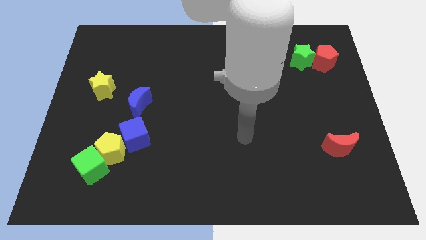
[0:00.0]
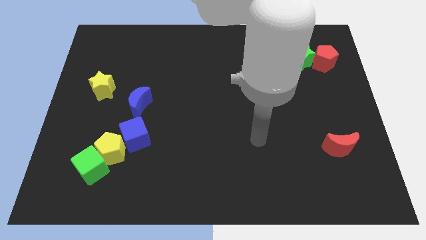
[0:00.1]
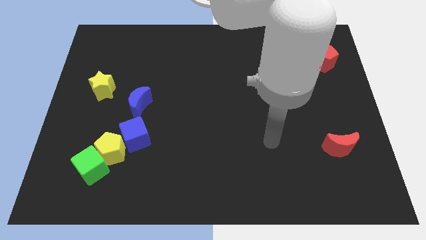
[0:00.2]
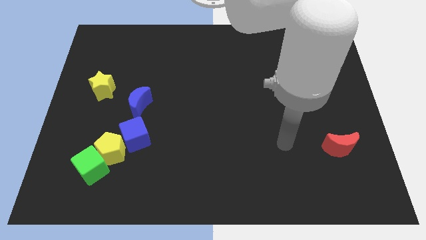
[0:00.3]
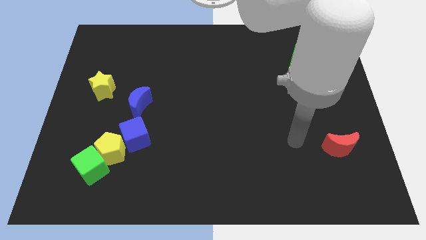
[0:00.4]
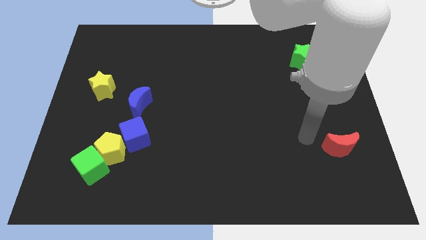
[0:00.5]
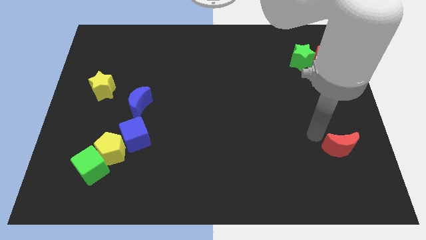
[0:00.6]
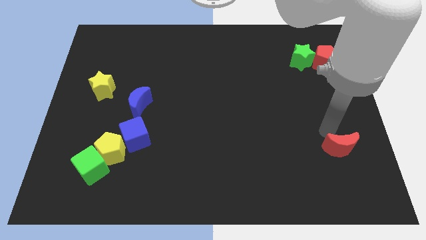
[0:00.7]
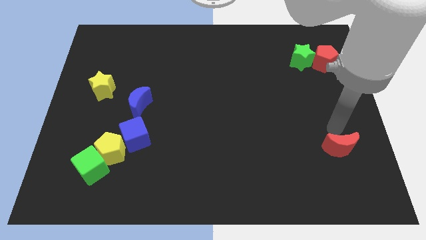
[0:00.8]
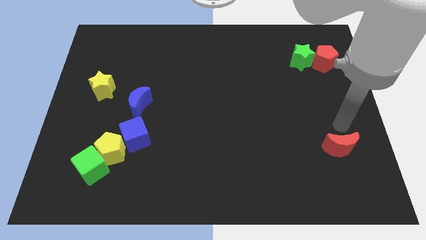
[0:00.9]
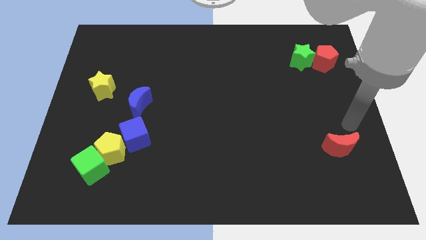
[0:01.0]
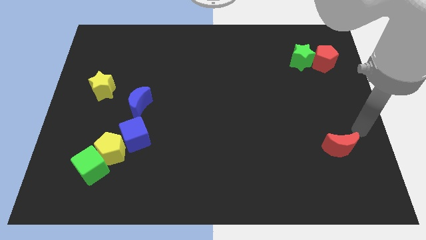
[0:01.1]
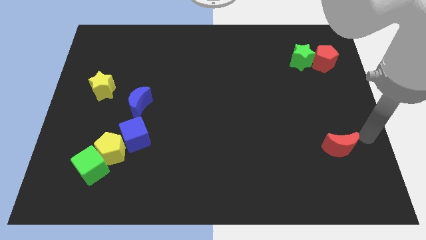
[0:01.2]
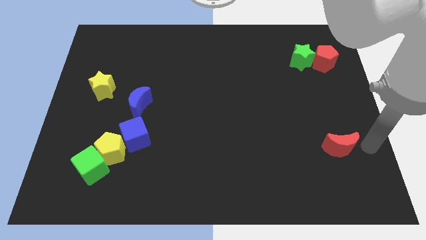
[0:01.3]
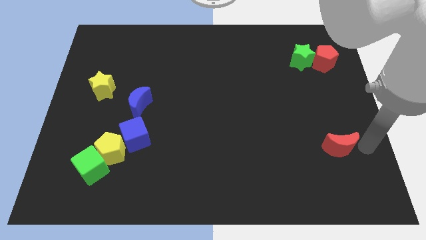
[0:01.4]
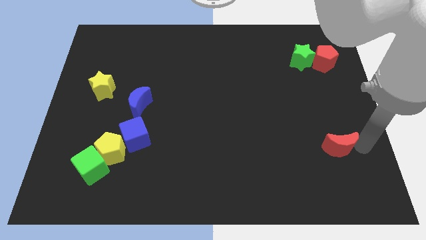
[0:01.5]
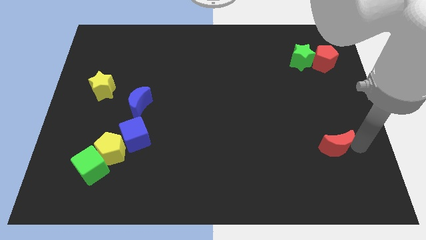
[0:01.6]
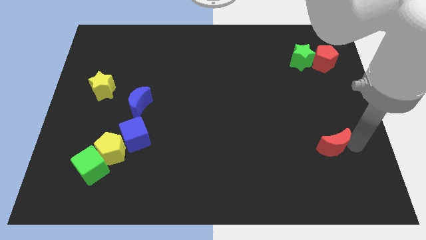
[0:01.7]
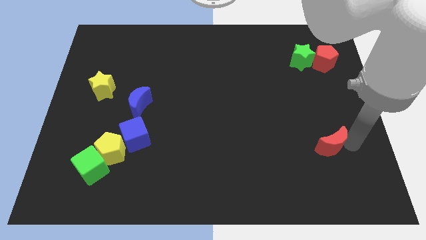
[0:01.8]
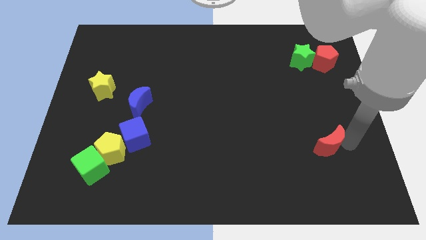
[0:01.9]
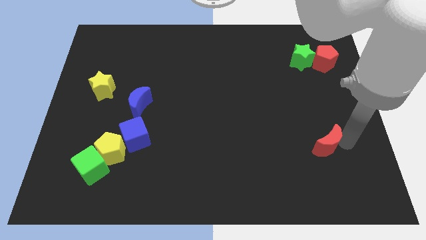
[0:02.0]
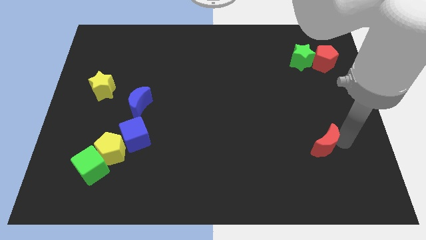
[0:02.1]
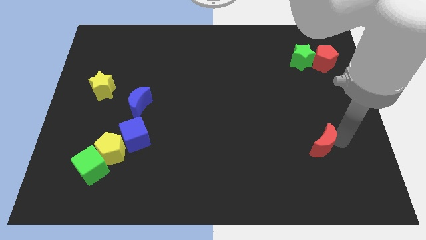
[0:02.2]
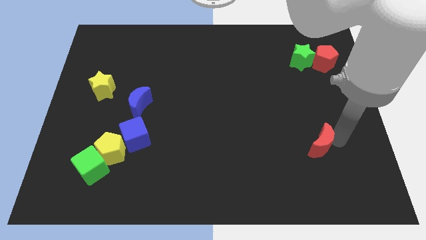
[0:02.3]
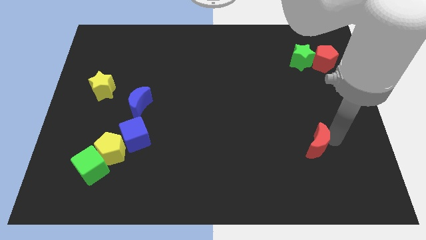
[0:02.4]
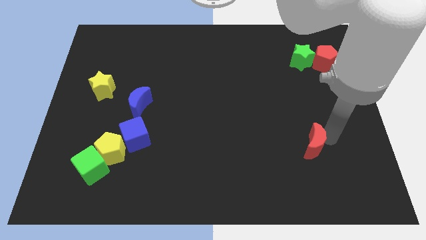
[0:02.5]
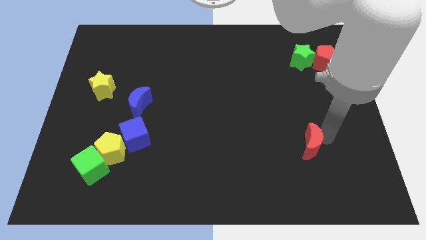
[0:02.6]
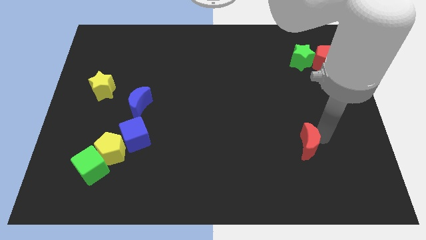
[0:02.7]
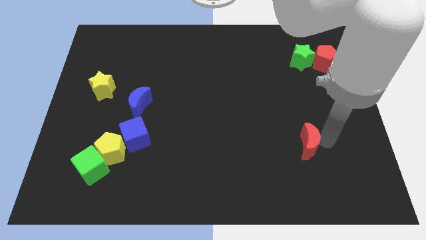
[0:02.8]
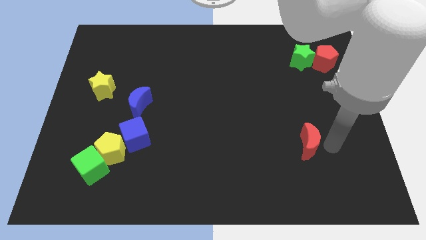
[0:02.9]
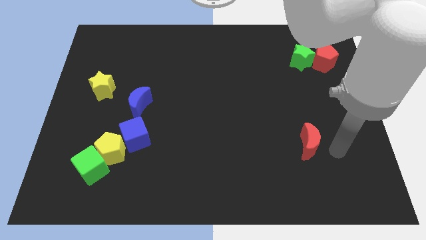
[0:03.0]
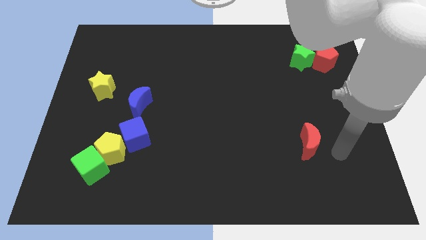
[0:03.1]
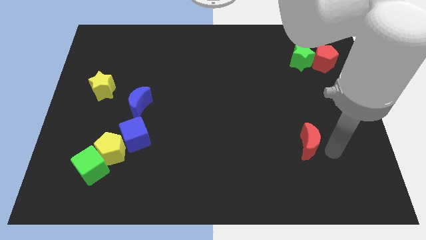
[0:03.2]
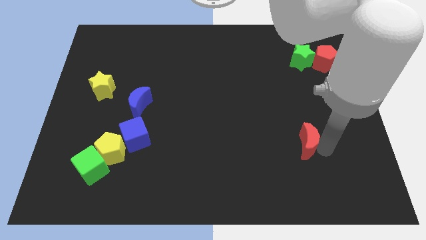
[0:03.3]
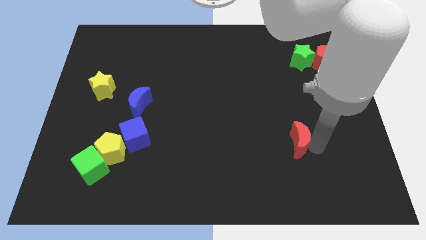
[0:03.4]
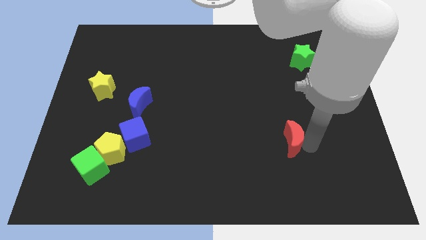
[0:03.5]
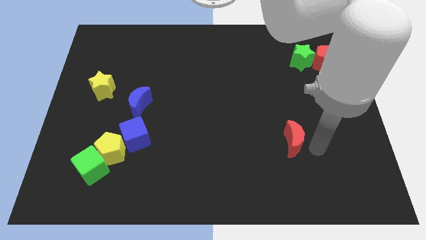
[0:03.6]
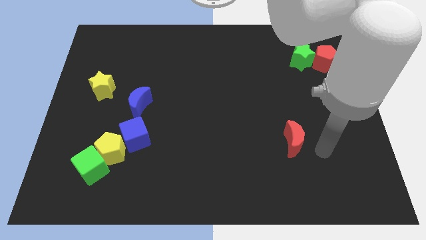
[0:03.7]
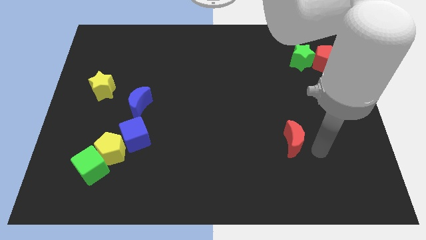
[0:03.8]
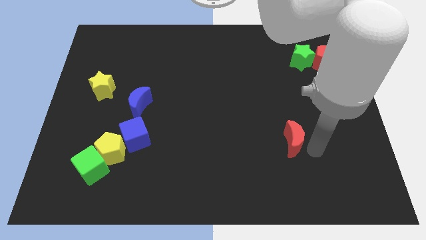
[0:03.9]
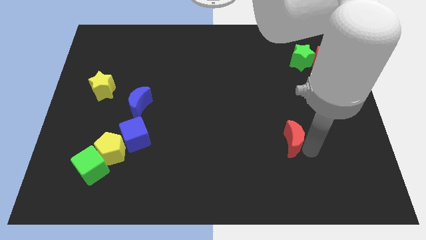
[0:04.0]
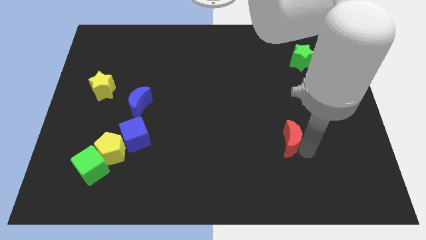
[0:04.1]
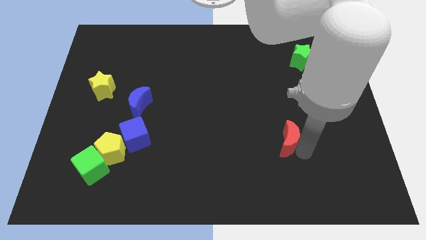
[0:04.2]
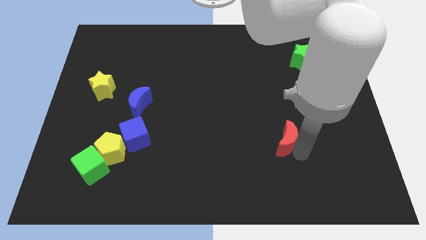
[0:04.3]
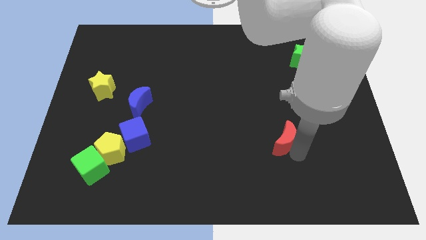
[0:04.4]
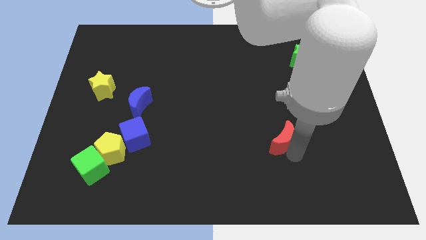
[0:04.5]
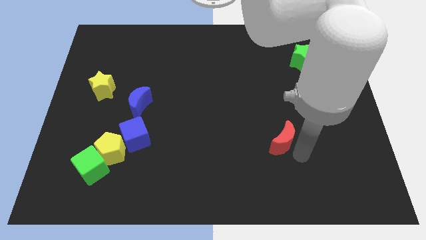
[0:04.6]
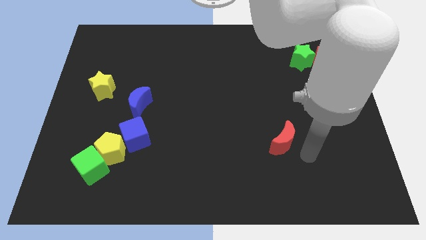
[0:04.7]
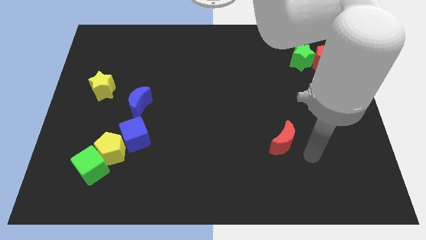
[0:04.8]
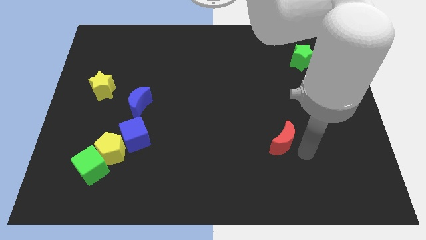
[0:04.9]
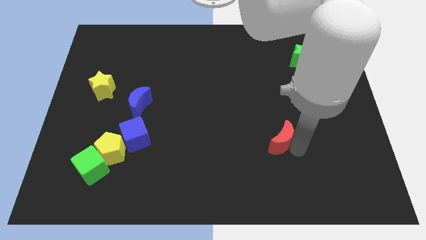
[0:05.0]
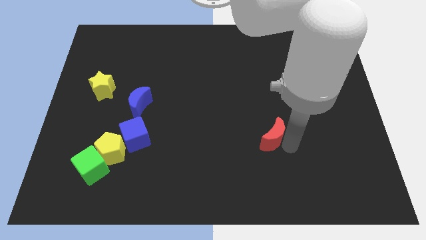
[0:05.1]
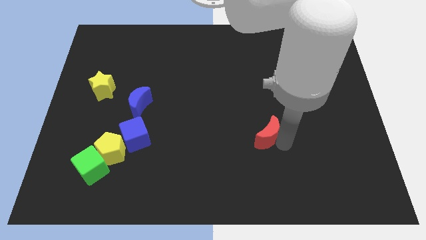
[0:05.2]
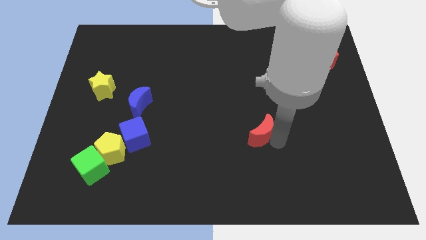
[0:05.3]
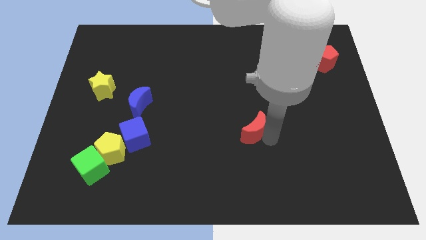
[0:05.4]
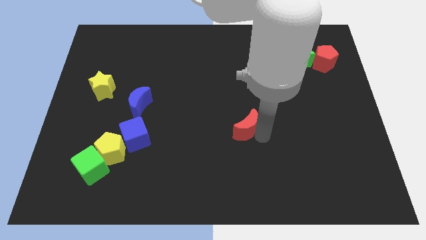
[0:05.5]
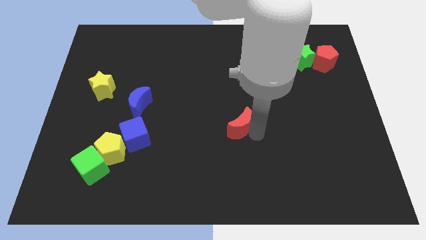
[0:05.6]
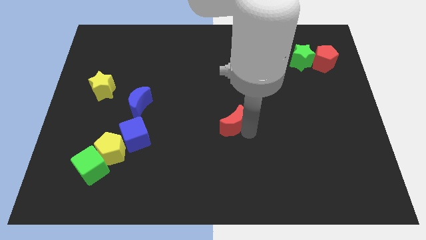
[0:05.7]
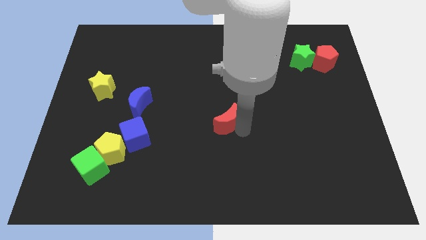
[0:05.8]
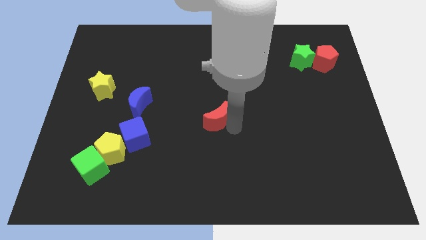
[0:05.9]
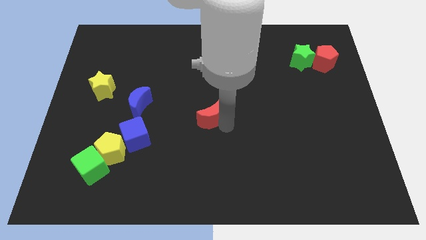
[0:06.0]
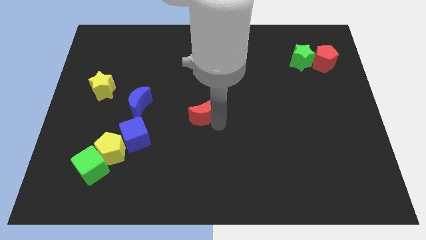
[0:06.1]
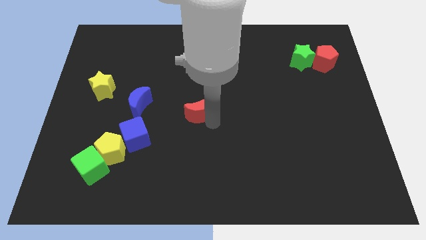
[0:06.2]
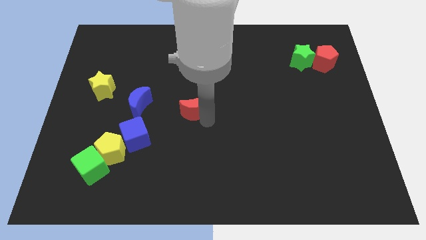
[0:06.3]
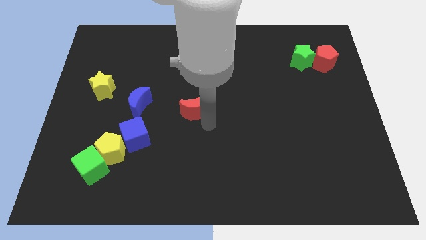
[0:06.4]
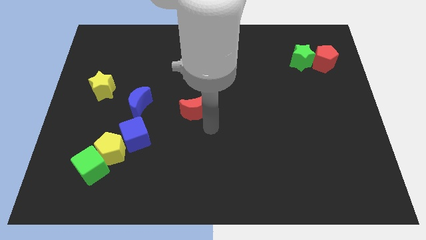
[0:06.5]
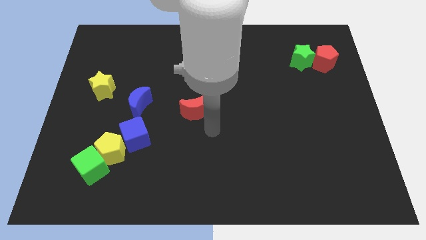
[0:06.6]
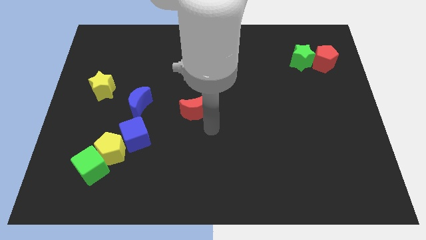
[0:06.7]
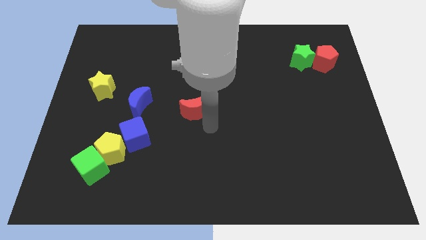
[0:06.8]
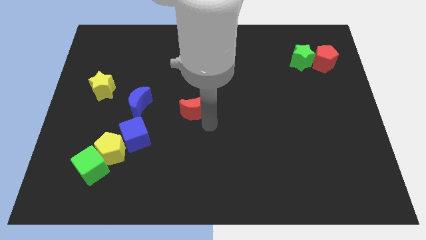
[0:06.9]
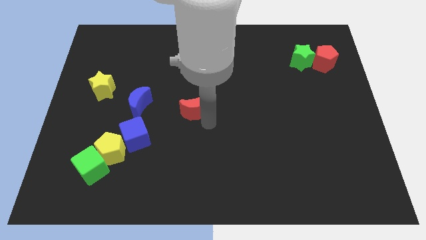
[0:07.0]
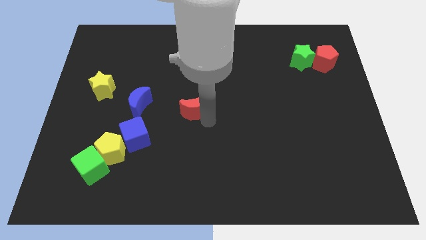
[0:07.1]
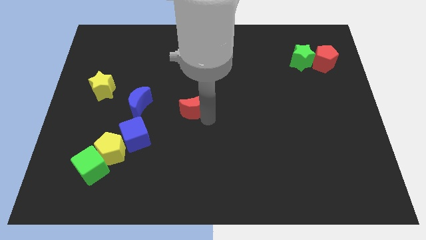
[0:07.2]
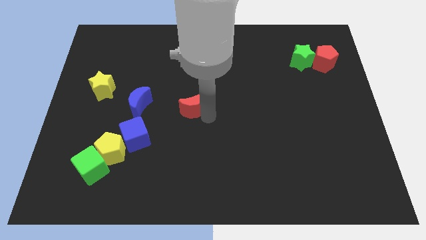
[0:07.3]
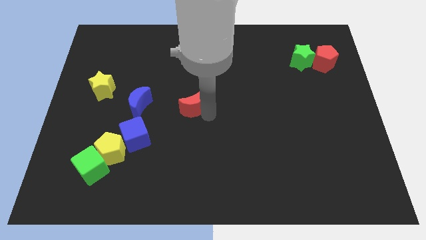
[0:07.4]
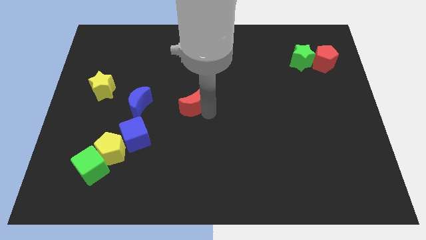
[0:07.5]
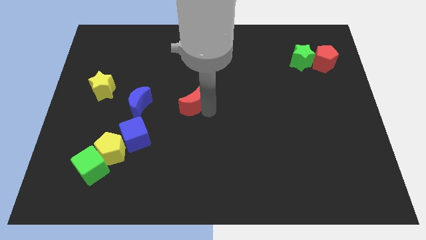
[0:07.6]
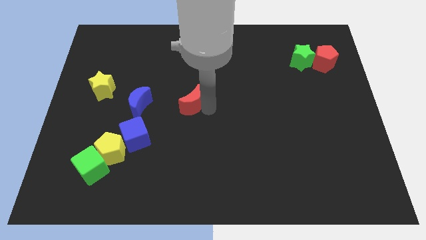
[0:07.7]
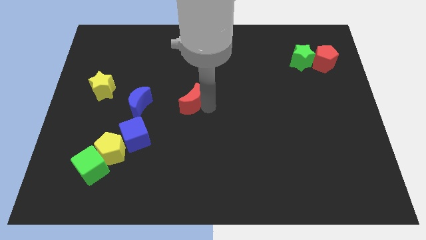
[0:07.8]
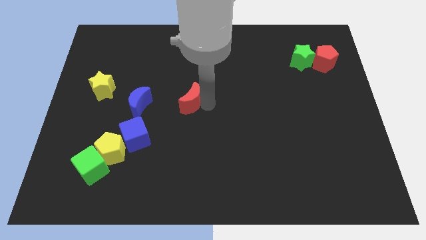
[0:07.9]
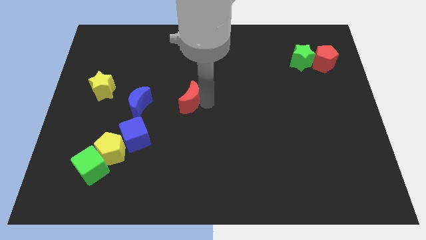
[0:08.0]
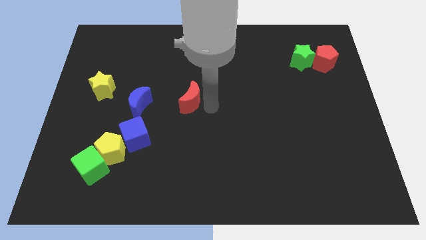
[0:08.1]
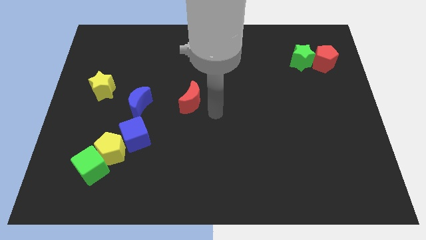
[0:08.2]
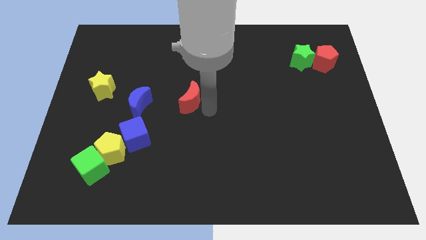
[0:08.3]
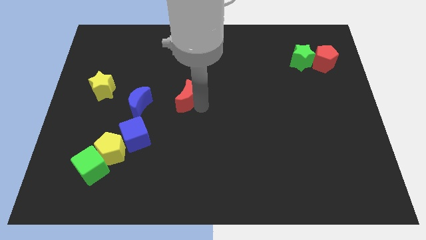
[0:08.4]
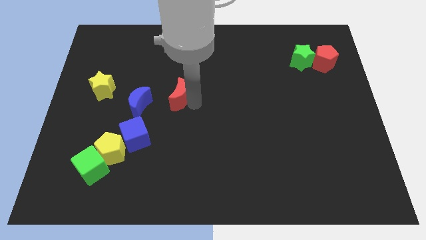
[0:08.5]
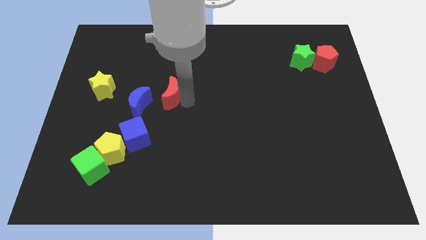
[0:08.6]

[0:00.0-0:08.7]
slide the red moon to the top right of the blue moon
